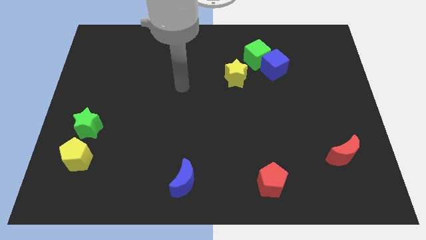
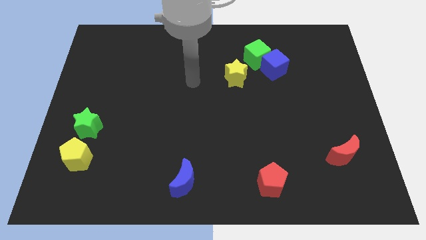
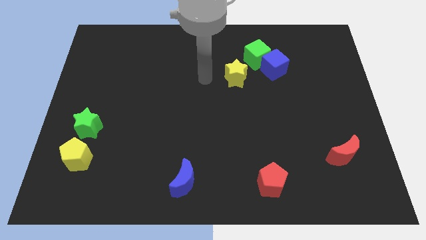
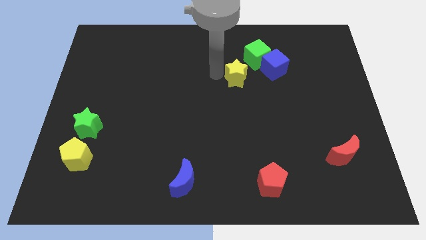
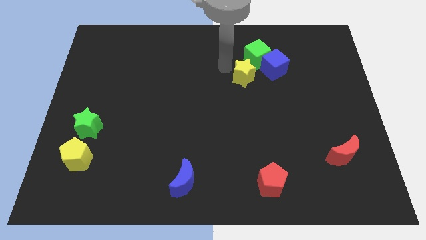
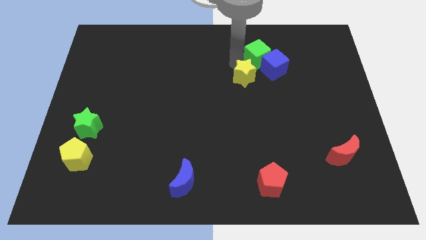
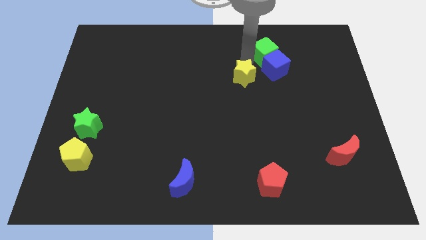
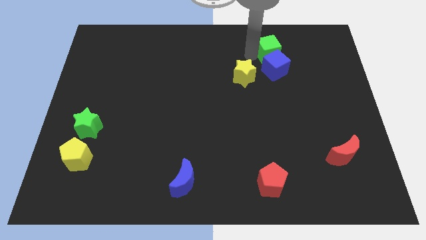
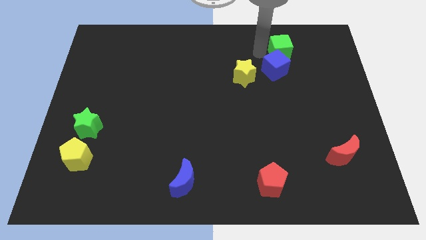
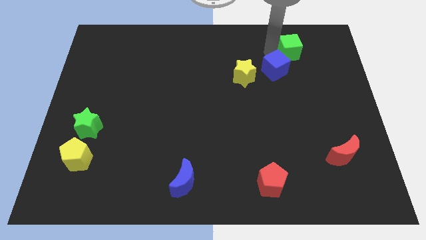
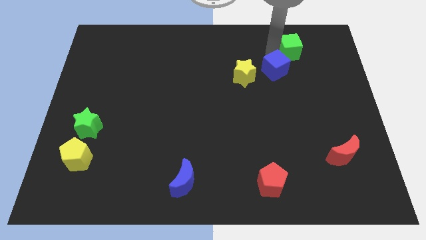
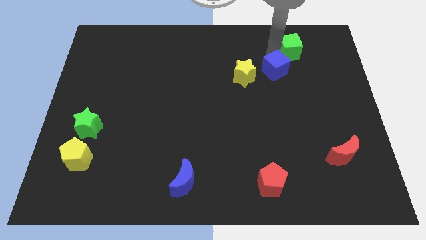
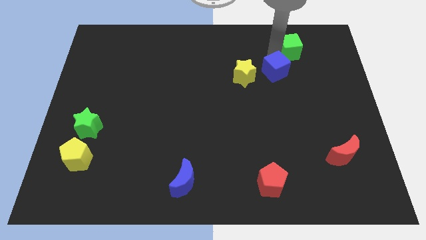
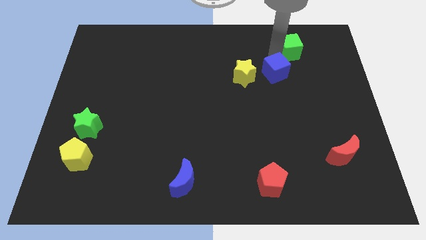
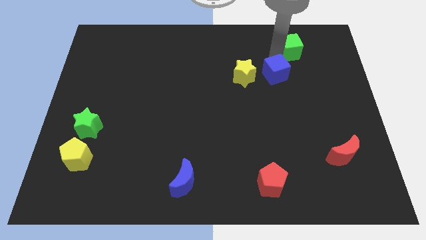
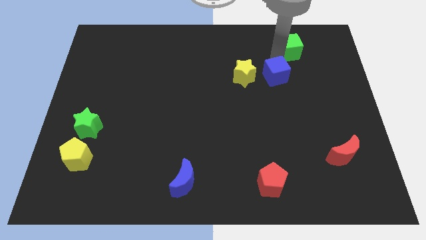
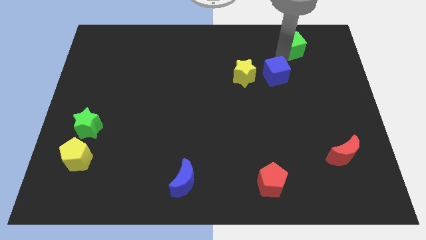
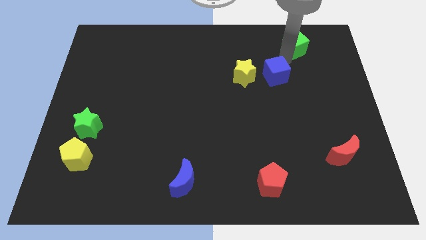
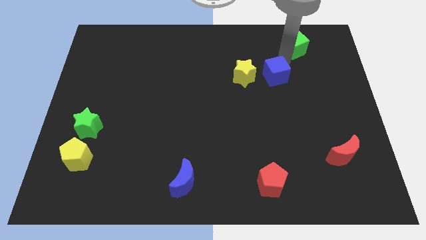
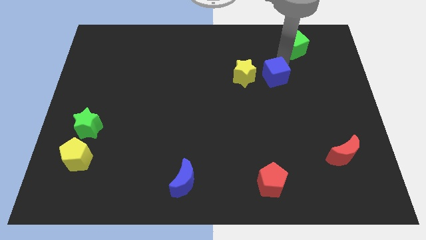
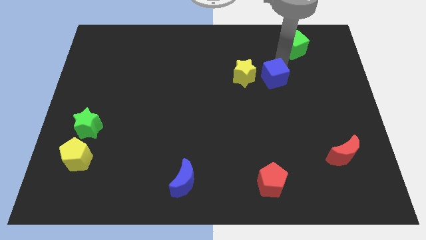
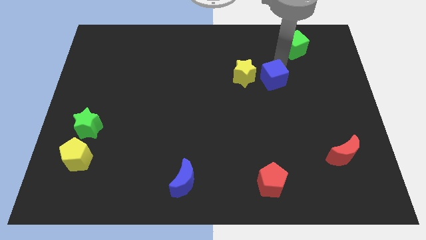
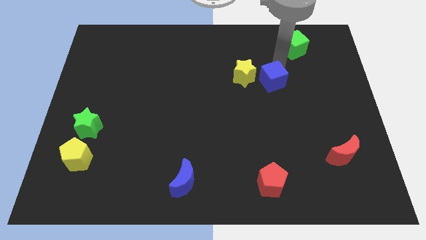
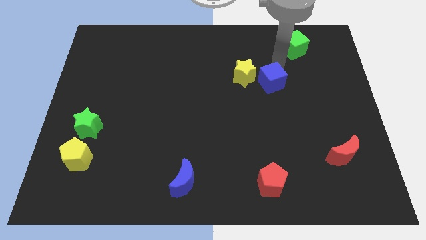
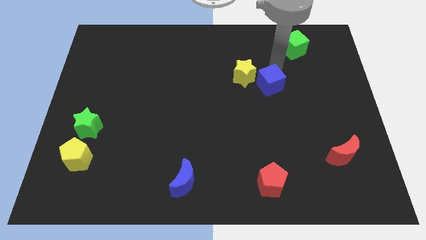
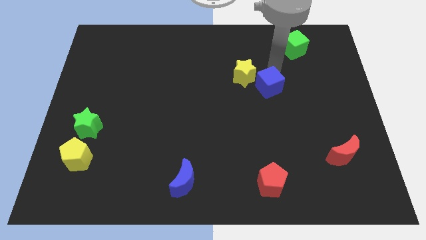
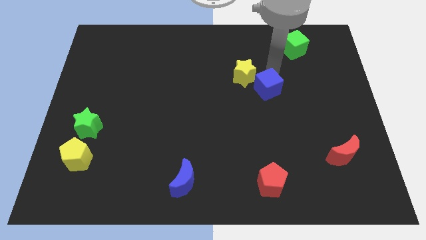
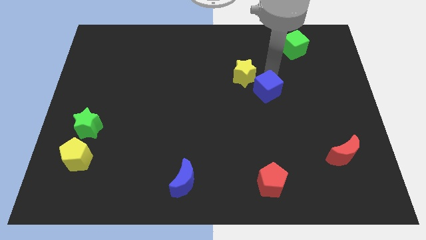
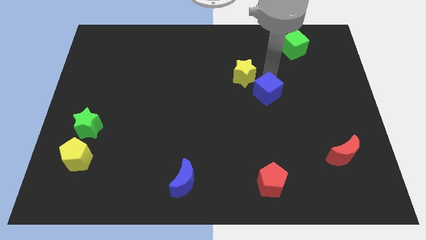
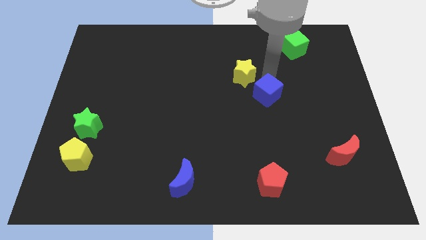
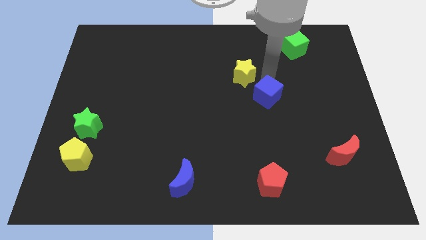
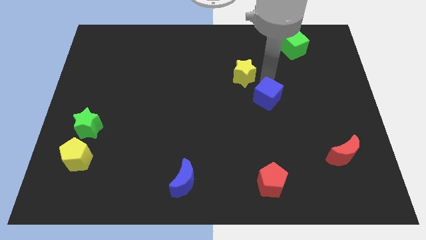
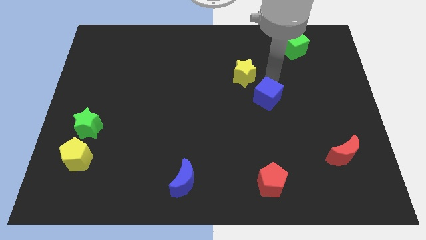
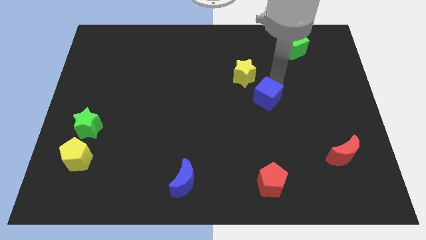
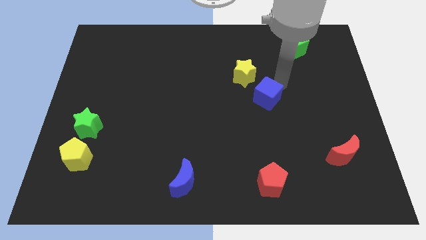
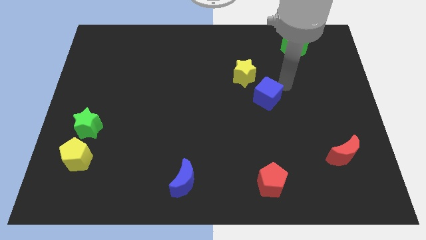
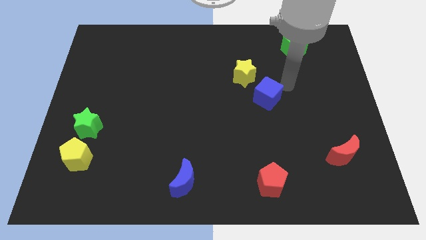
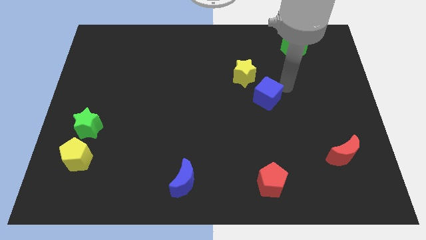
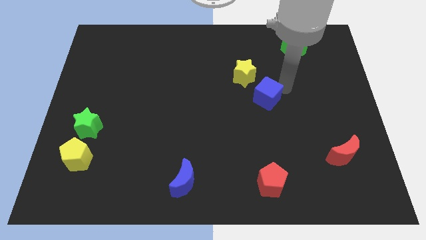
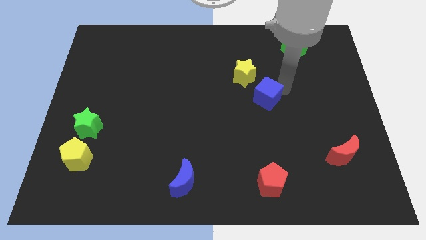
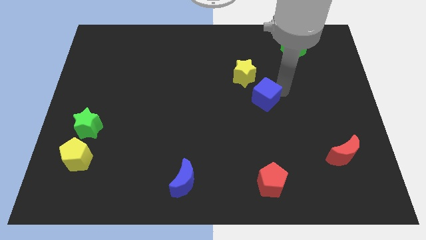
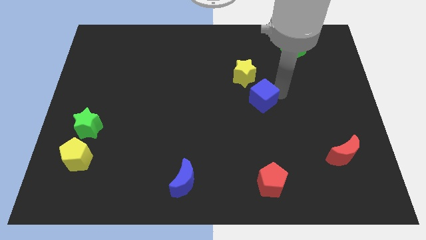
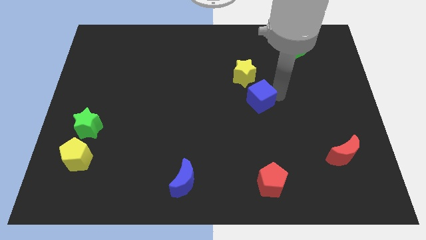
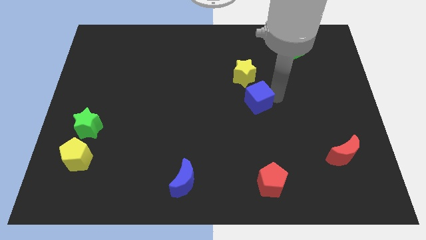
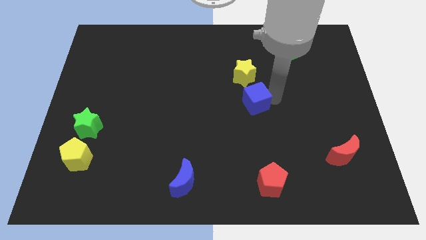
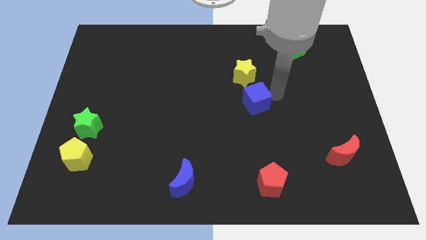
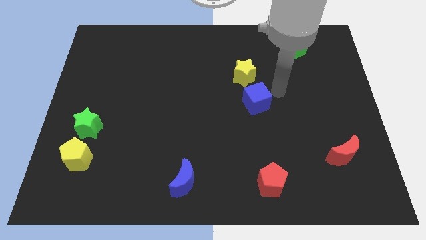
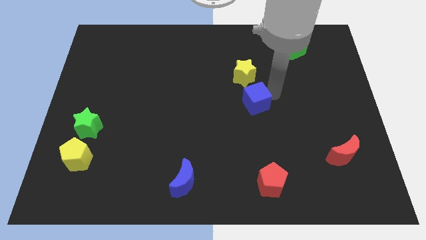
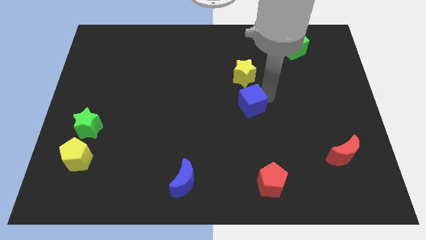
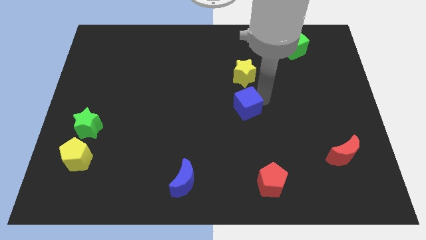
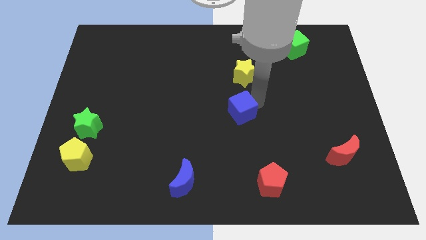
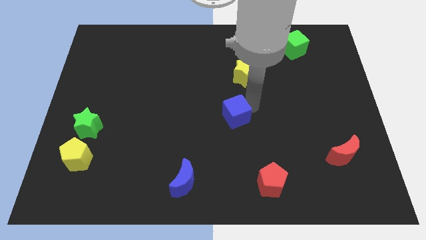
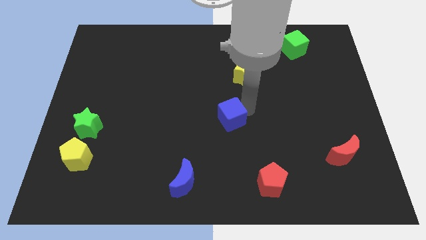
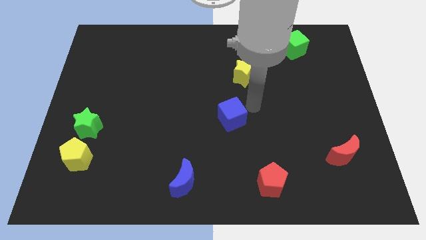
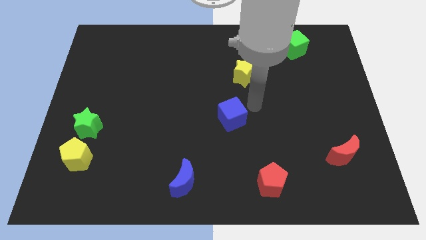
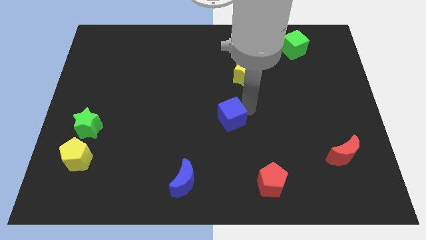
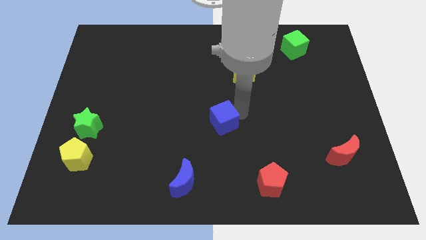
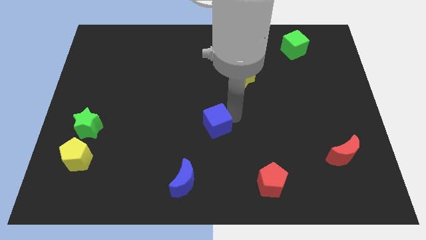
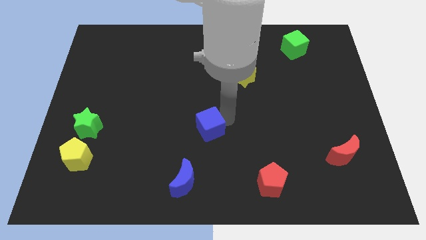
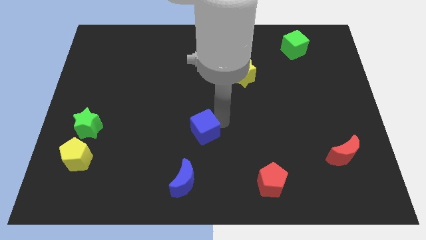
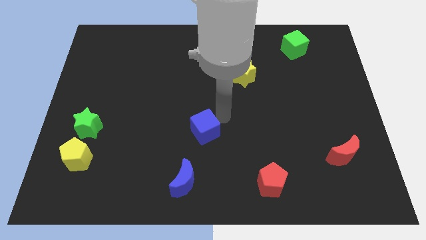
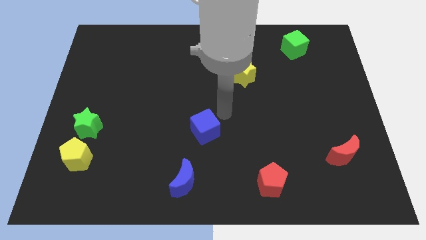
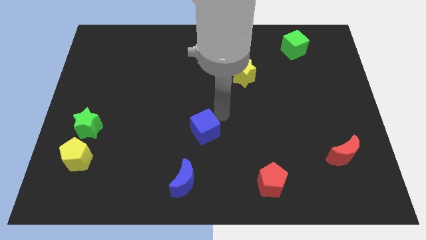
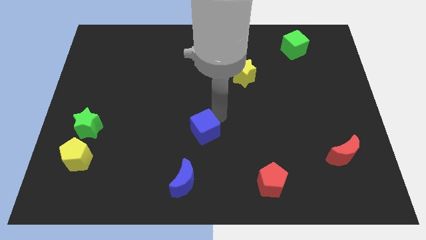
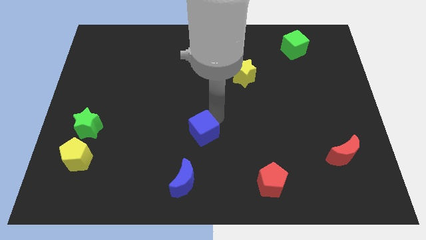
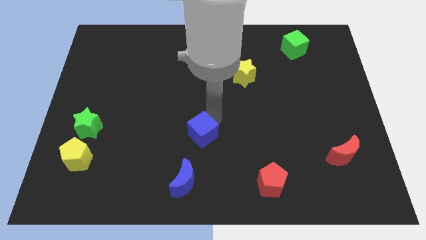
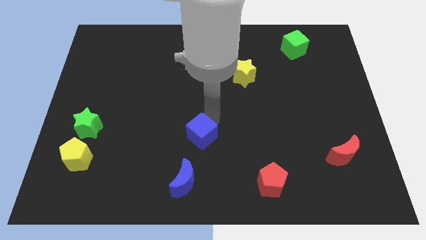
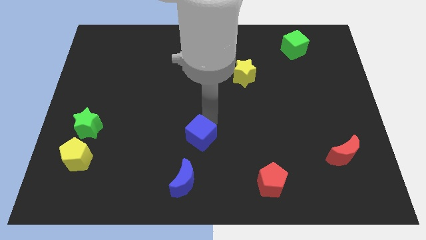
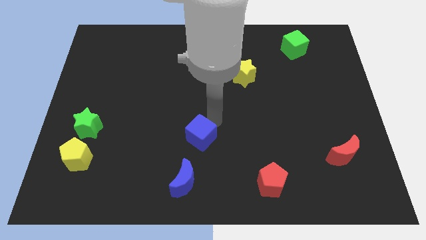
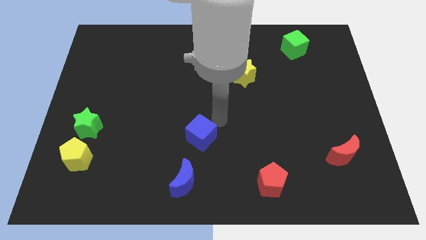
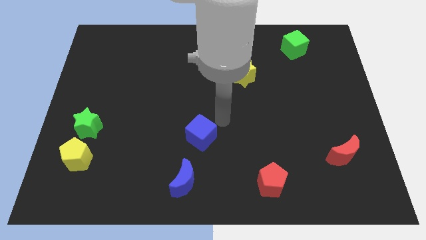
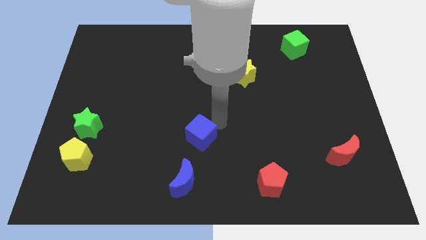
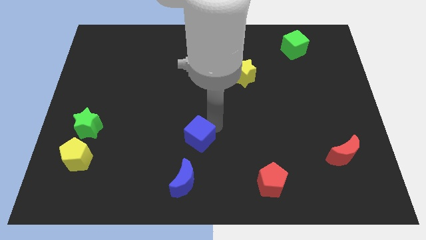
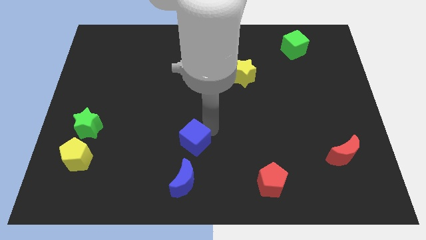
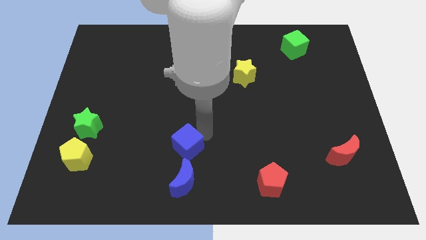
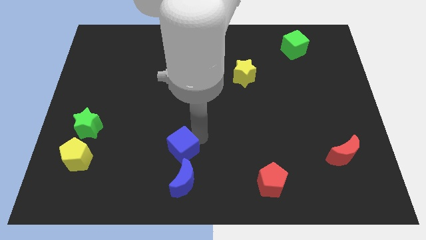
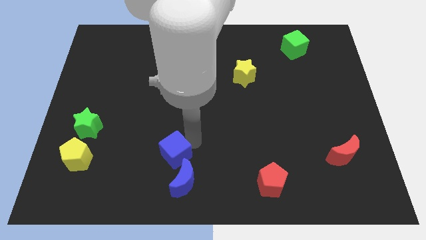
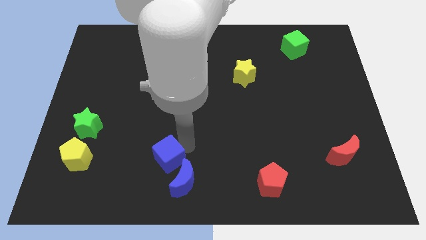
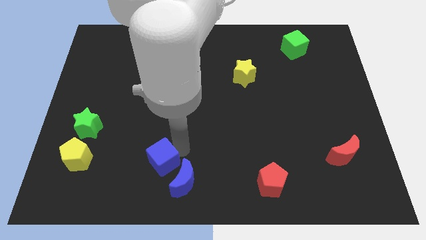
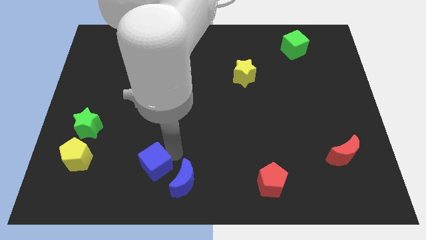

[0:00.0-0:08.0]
put the blue cube to the left side of the blue moon
